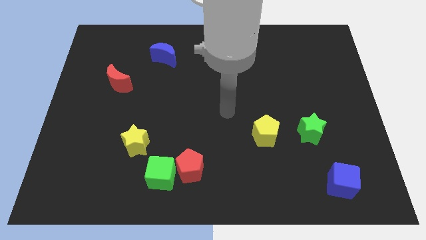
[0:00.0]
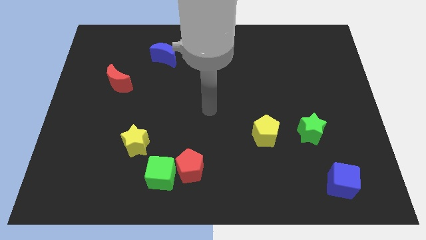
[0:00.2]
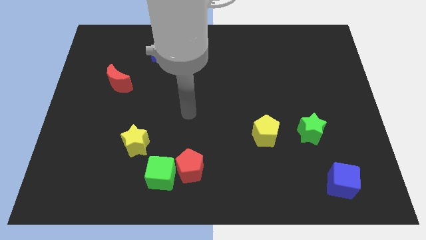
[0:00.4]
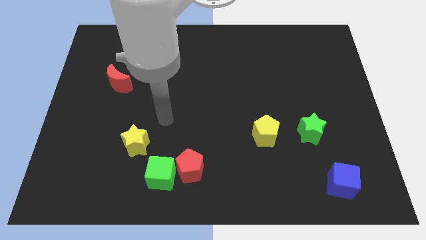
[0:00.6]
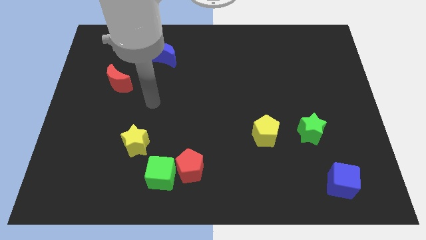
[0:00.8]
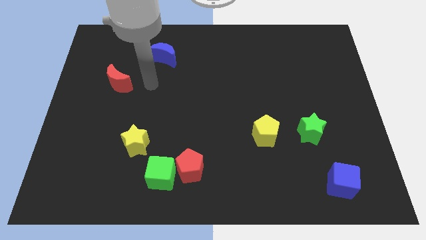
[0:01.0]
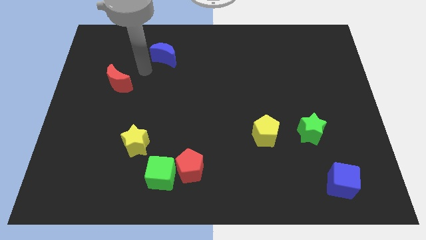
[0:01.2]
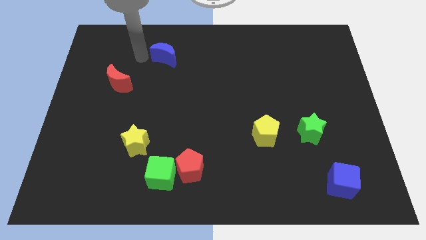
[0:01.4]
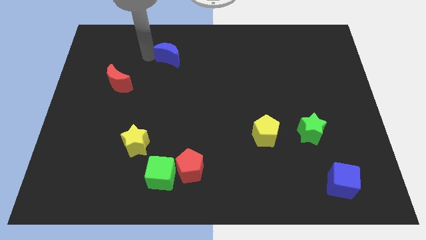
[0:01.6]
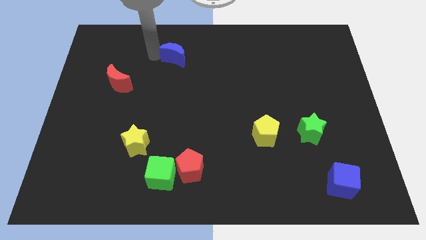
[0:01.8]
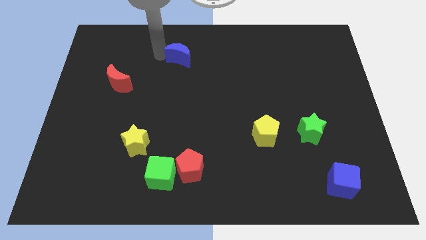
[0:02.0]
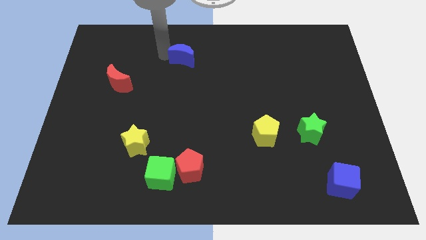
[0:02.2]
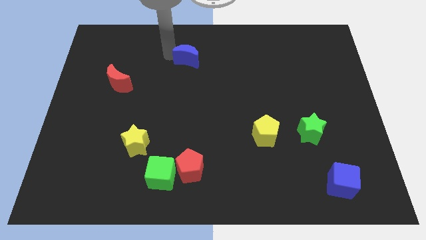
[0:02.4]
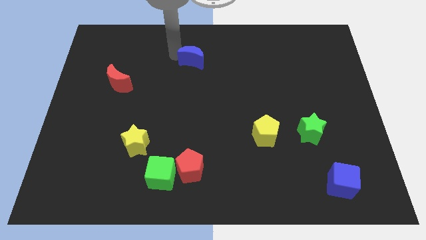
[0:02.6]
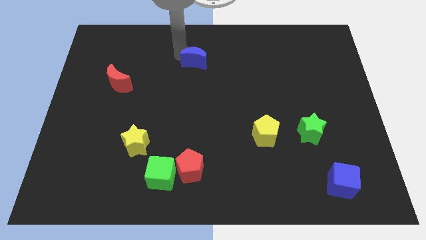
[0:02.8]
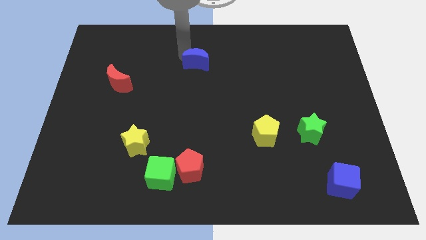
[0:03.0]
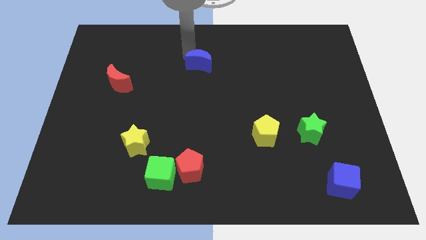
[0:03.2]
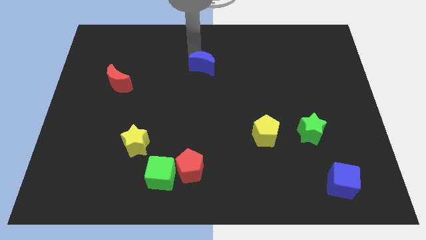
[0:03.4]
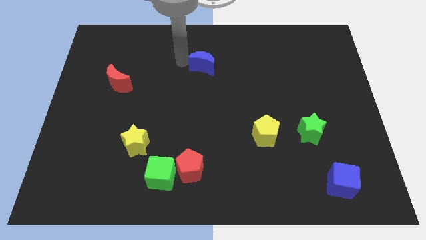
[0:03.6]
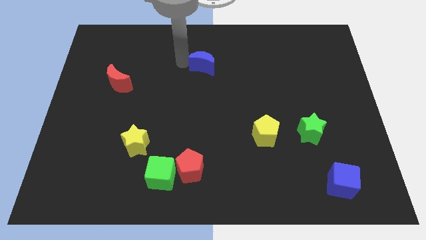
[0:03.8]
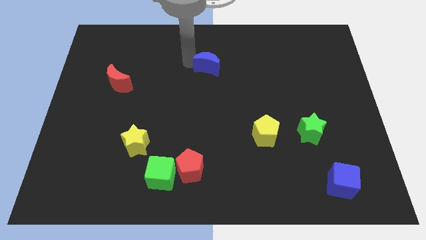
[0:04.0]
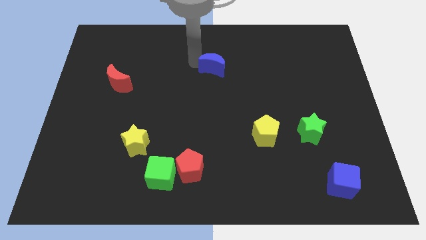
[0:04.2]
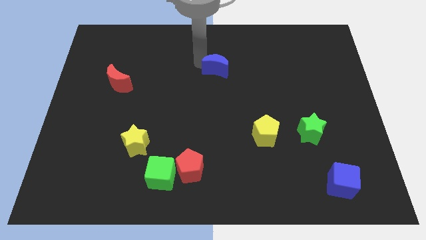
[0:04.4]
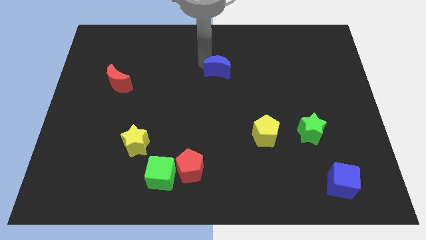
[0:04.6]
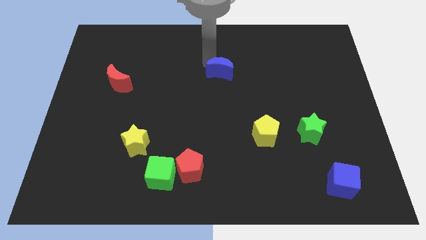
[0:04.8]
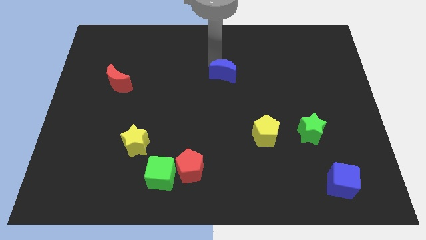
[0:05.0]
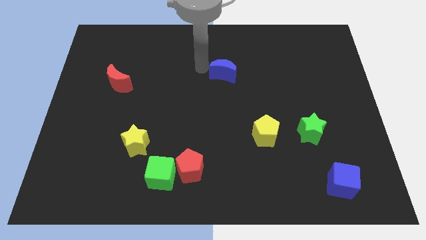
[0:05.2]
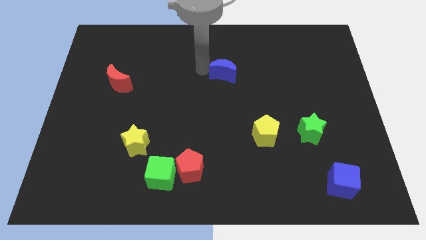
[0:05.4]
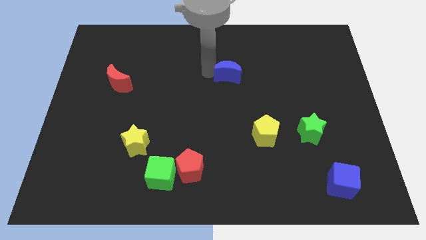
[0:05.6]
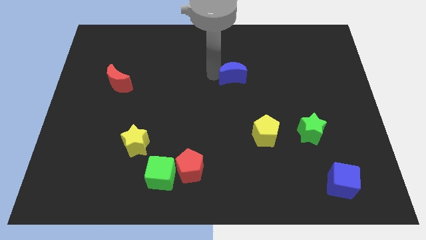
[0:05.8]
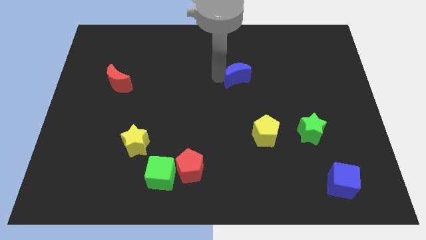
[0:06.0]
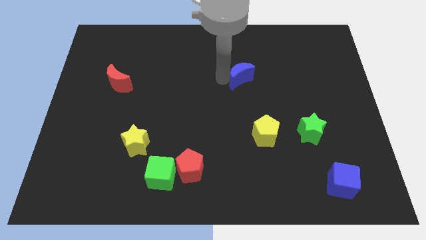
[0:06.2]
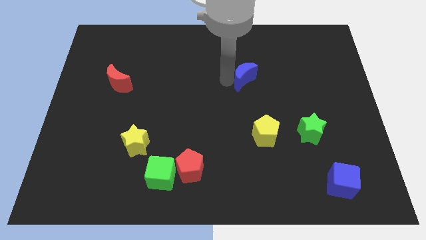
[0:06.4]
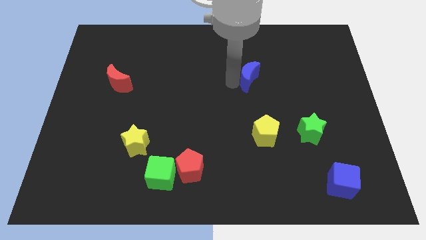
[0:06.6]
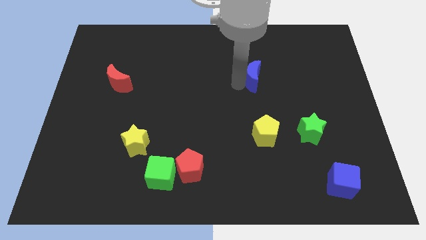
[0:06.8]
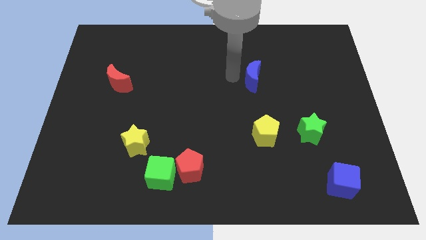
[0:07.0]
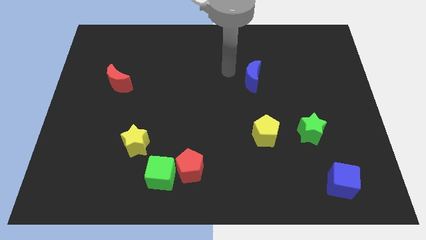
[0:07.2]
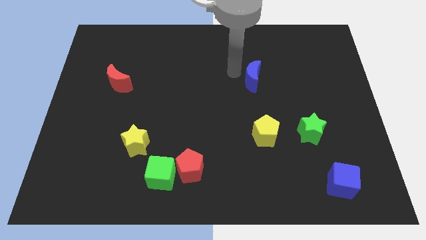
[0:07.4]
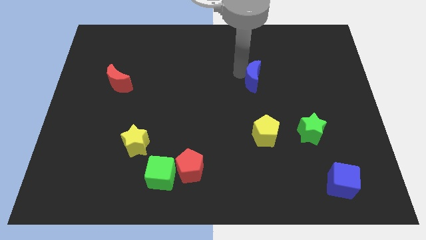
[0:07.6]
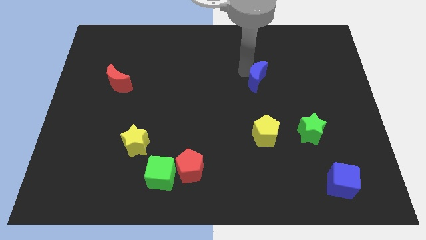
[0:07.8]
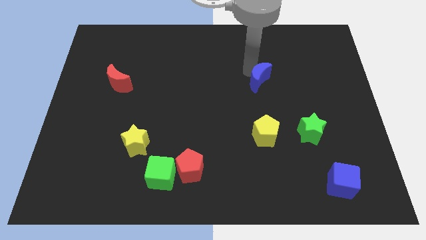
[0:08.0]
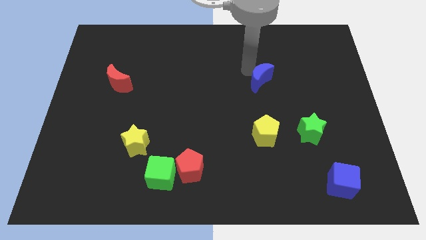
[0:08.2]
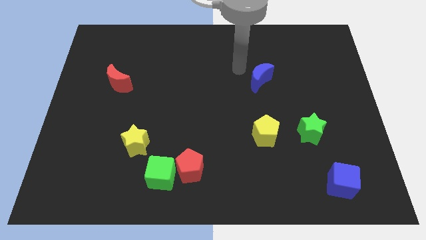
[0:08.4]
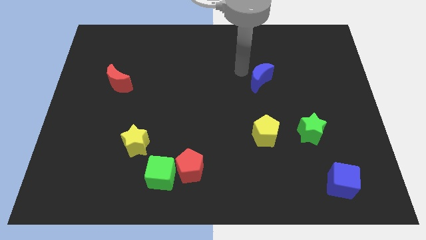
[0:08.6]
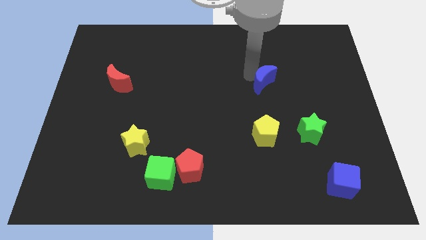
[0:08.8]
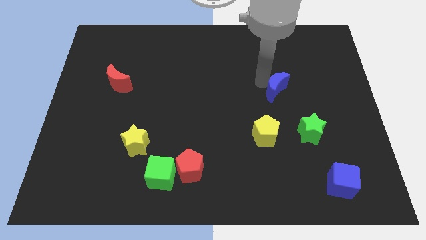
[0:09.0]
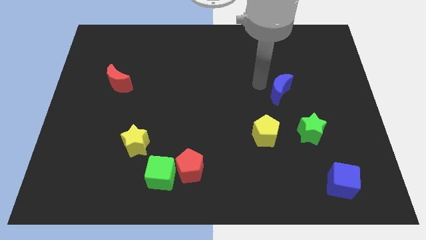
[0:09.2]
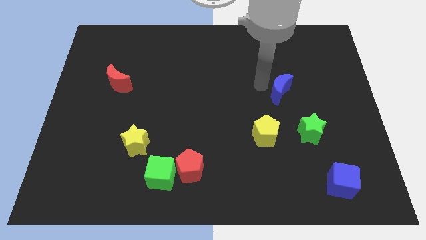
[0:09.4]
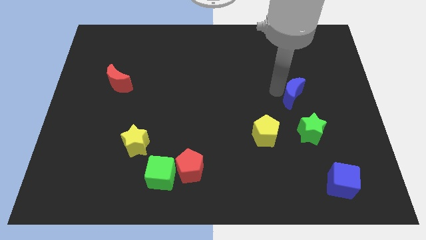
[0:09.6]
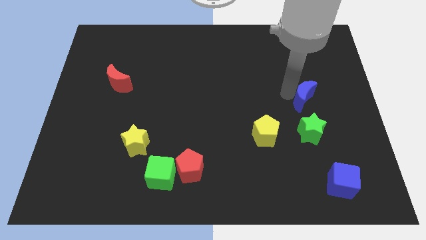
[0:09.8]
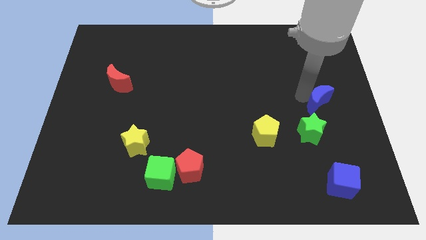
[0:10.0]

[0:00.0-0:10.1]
put the blue moon to the top right side of the green star

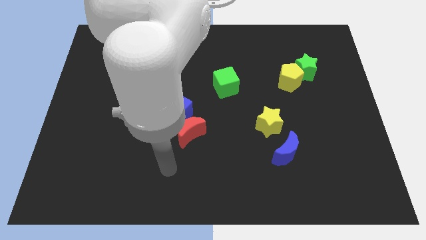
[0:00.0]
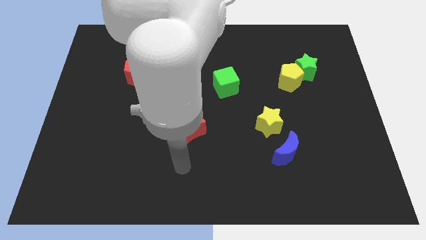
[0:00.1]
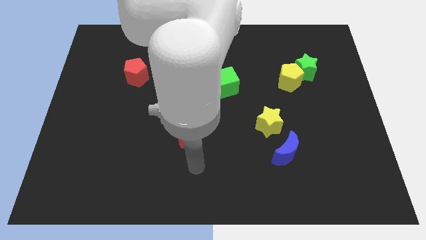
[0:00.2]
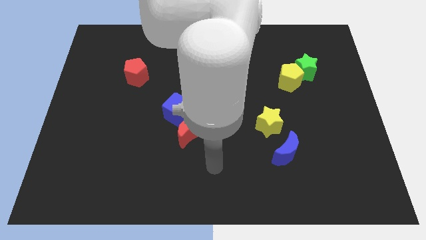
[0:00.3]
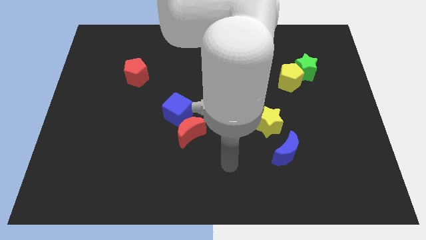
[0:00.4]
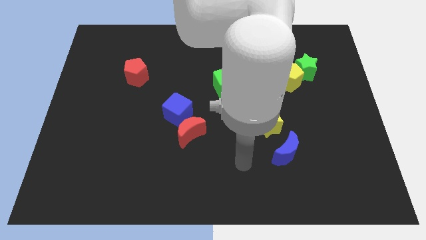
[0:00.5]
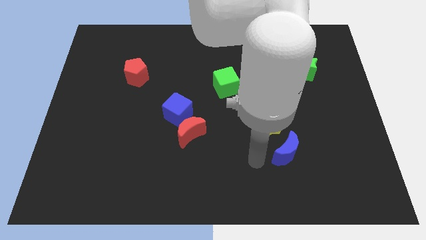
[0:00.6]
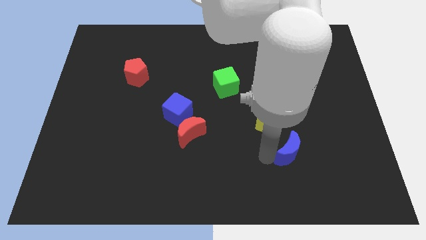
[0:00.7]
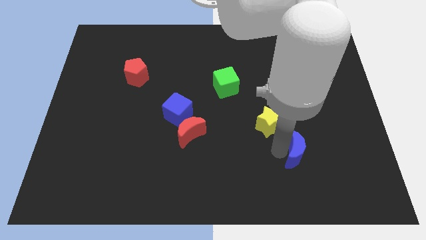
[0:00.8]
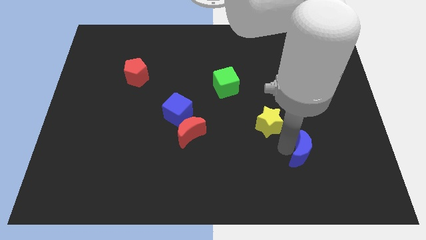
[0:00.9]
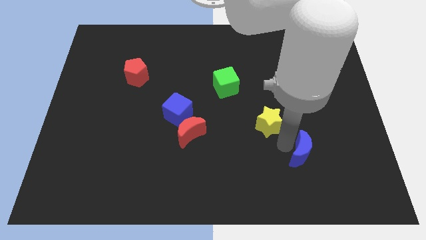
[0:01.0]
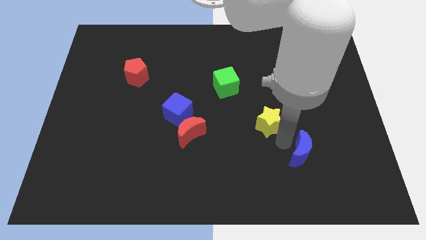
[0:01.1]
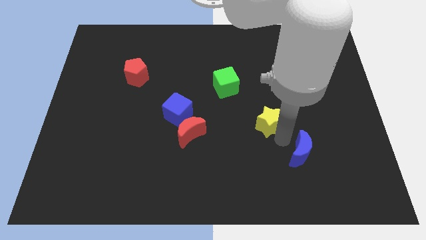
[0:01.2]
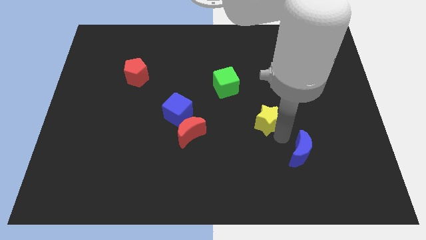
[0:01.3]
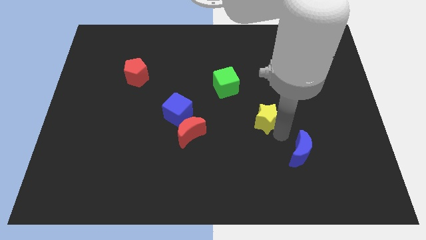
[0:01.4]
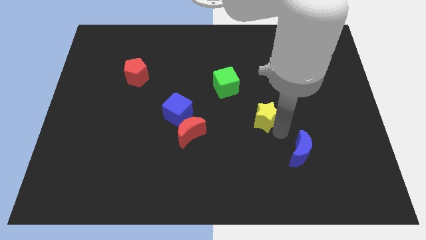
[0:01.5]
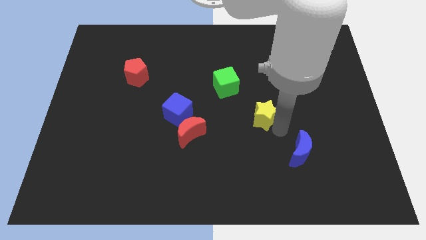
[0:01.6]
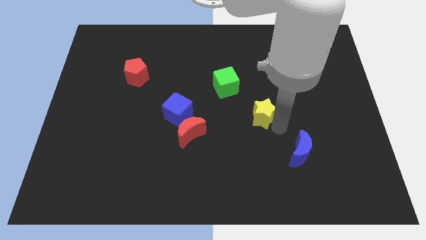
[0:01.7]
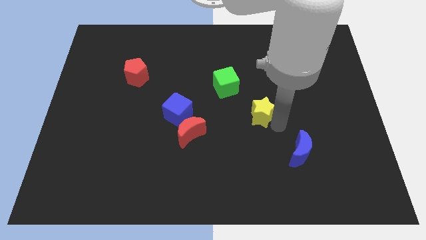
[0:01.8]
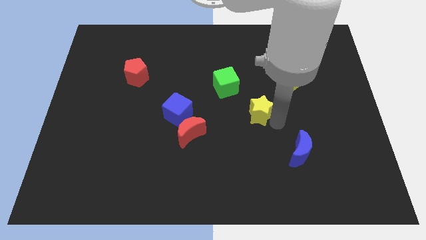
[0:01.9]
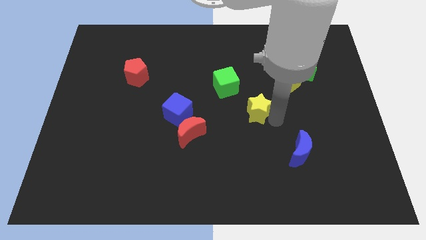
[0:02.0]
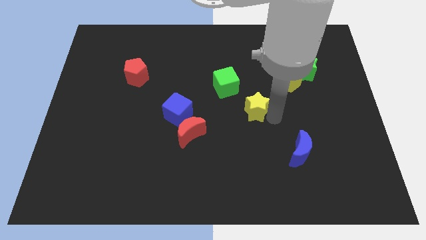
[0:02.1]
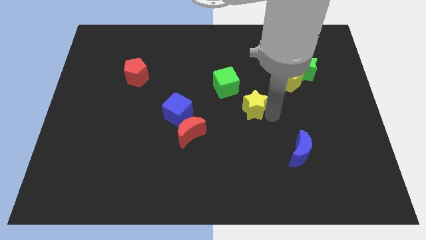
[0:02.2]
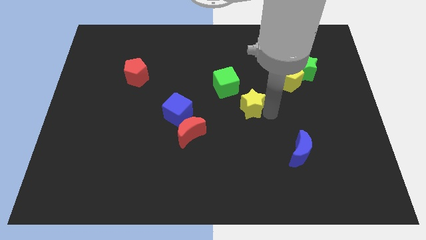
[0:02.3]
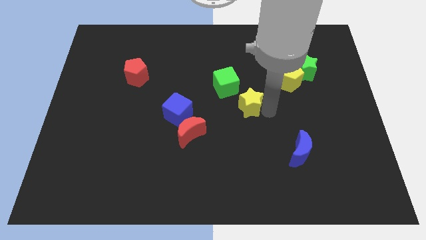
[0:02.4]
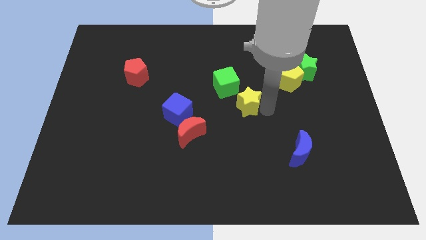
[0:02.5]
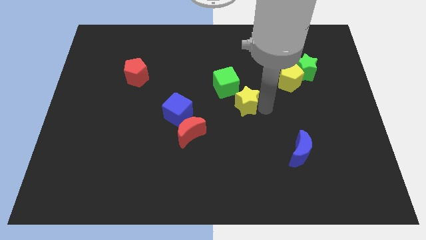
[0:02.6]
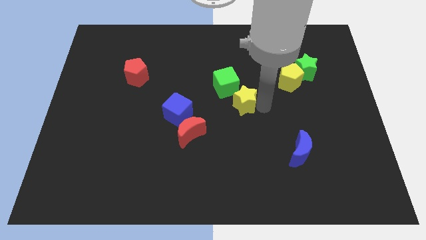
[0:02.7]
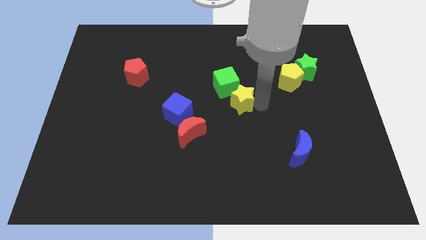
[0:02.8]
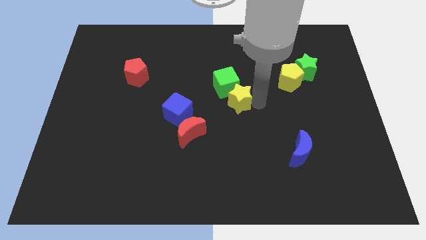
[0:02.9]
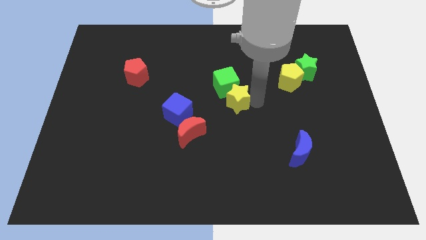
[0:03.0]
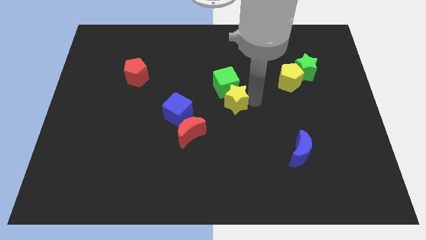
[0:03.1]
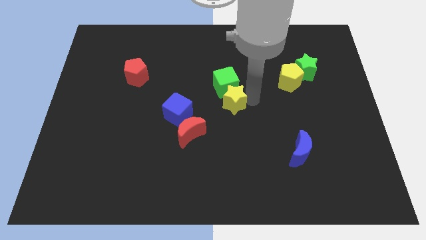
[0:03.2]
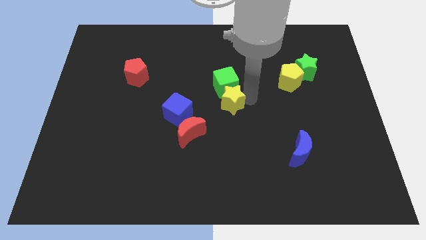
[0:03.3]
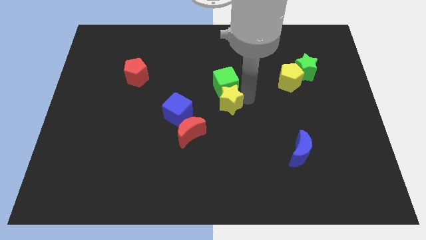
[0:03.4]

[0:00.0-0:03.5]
slide the yellow star to the bottom left side of the green cube
